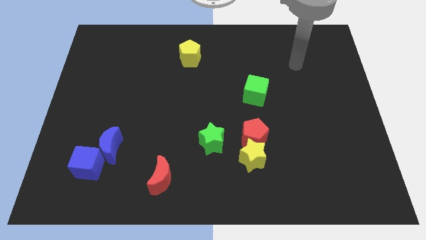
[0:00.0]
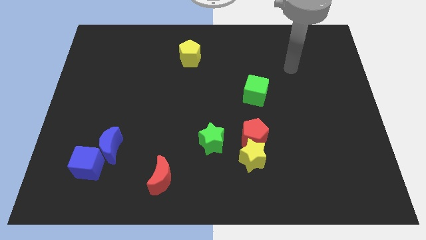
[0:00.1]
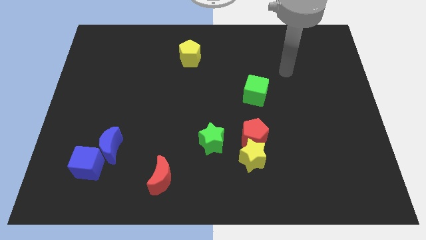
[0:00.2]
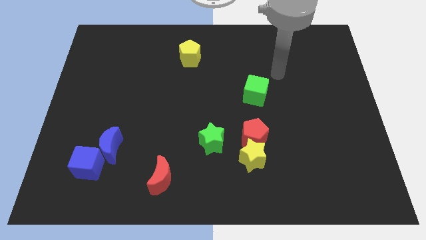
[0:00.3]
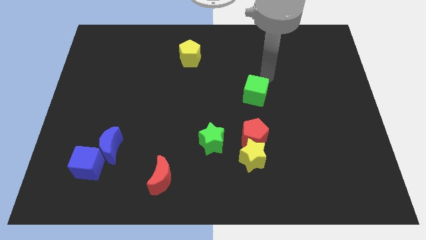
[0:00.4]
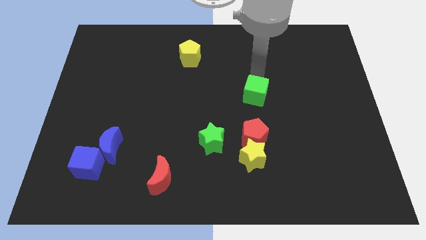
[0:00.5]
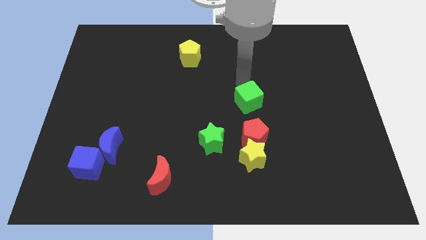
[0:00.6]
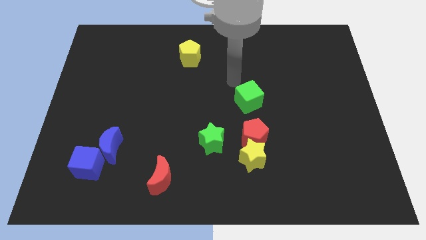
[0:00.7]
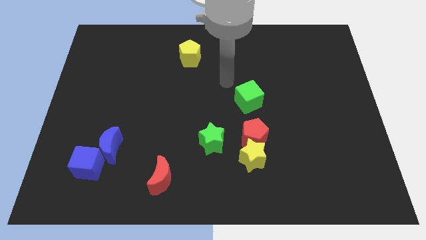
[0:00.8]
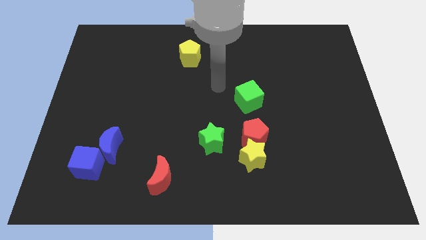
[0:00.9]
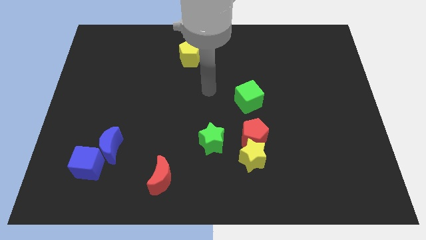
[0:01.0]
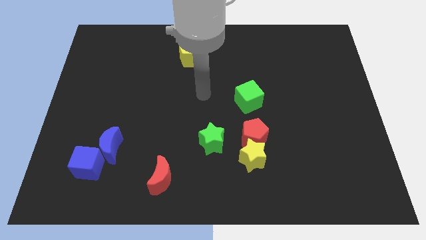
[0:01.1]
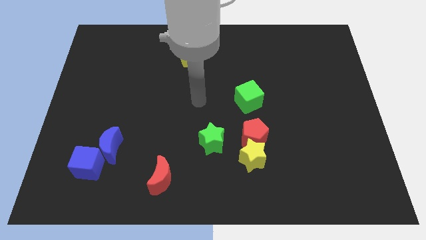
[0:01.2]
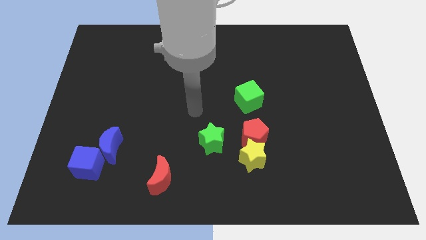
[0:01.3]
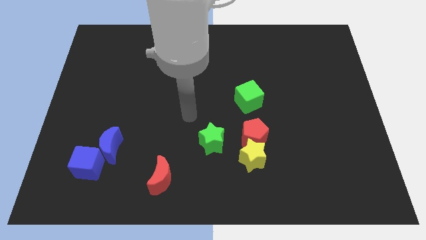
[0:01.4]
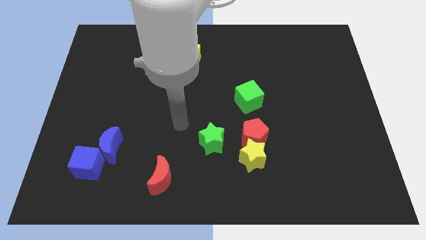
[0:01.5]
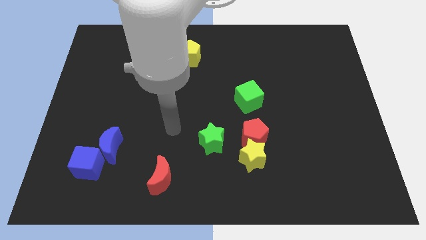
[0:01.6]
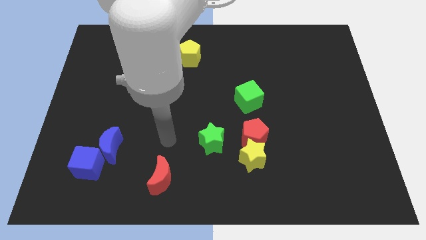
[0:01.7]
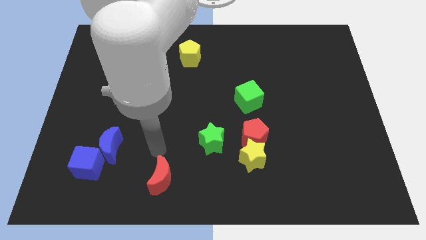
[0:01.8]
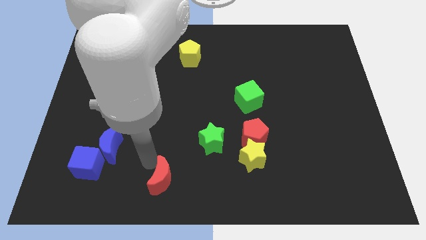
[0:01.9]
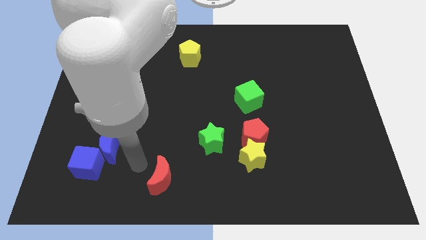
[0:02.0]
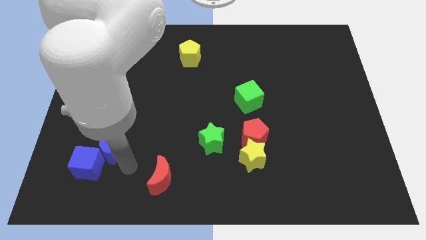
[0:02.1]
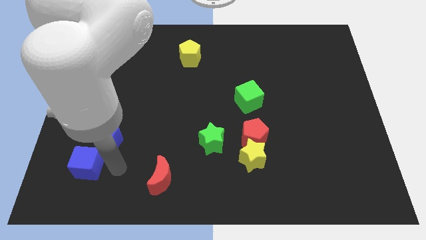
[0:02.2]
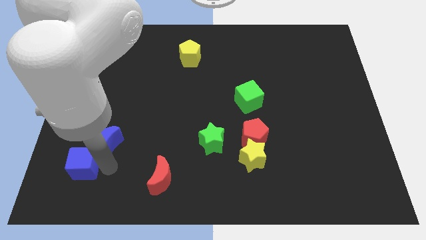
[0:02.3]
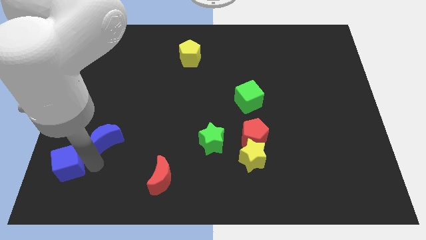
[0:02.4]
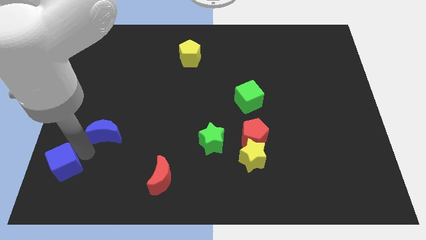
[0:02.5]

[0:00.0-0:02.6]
pull the blue moon apart from the blue cube

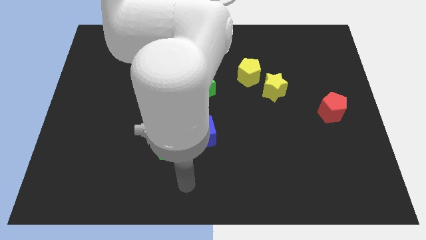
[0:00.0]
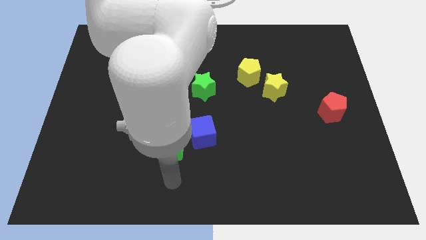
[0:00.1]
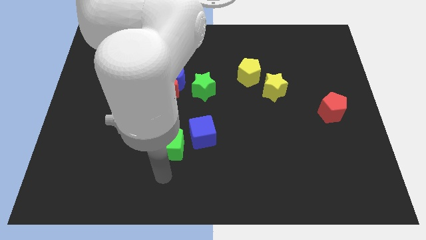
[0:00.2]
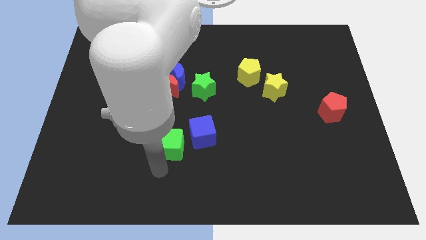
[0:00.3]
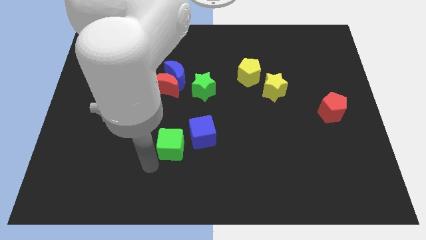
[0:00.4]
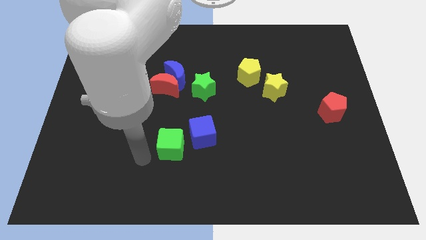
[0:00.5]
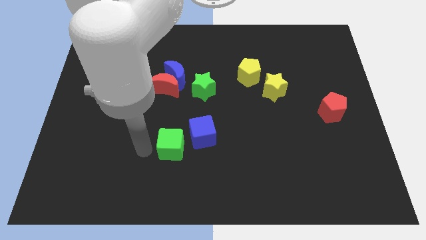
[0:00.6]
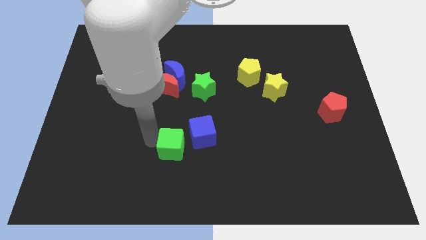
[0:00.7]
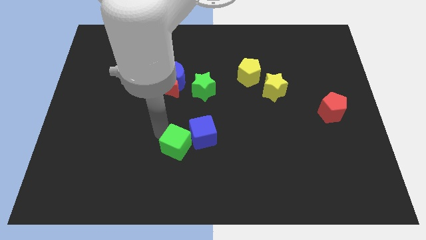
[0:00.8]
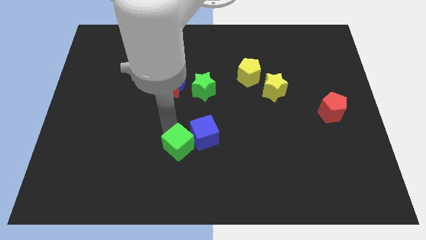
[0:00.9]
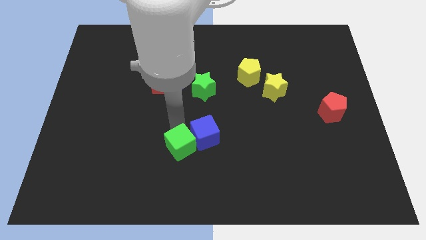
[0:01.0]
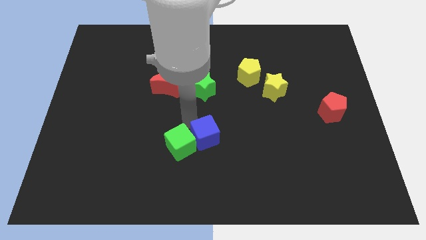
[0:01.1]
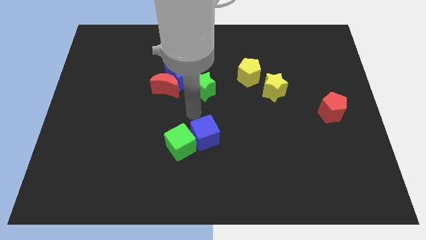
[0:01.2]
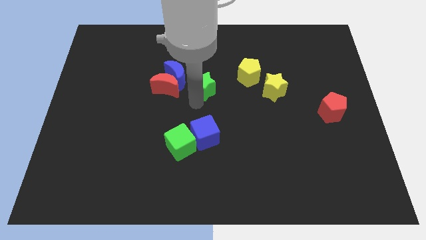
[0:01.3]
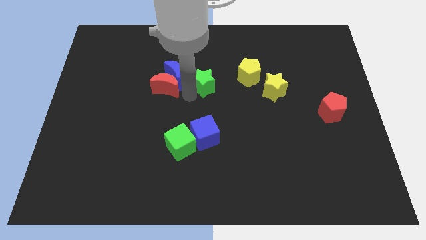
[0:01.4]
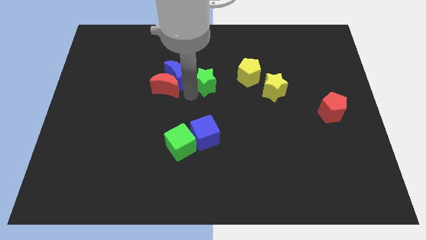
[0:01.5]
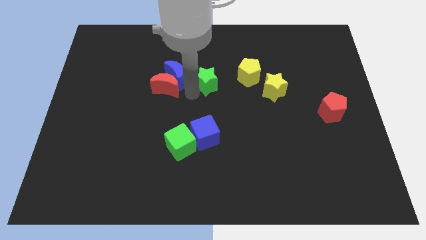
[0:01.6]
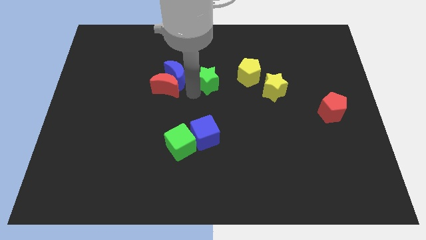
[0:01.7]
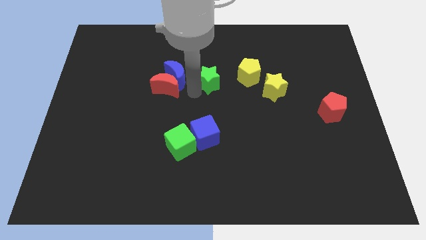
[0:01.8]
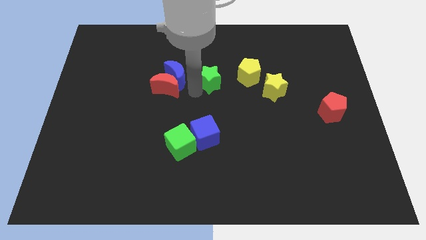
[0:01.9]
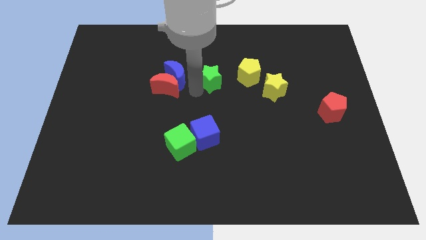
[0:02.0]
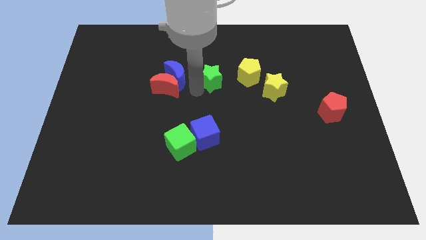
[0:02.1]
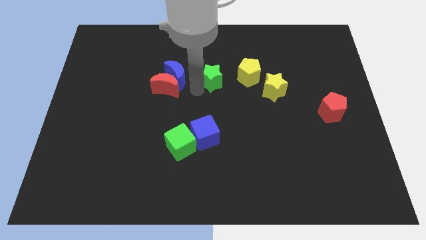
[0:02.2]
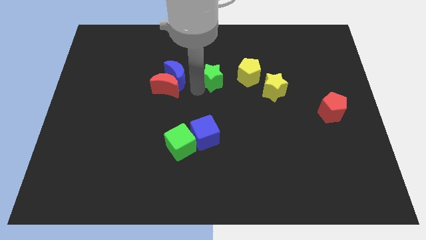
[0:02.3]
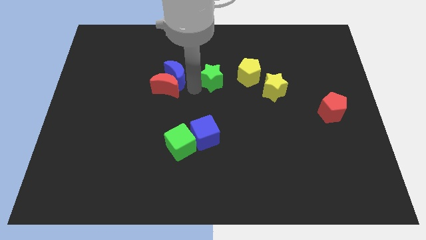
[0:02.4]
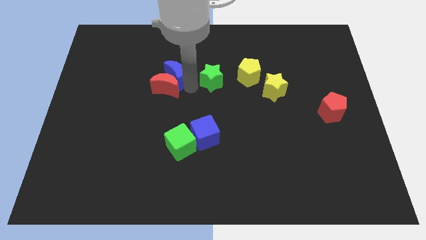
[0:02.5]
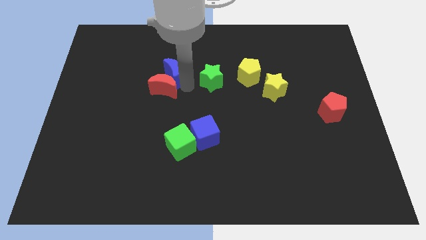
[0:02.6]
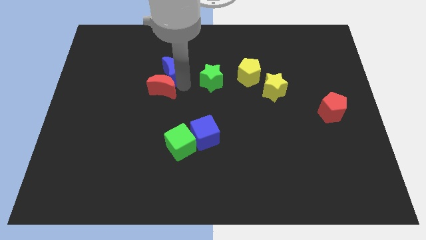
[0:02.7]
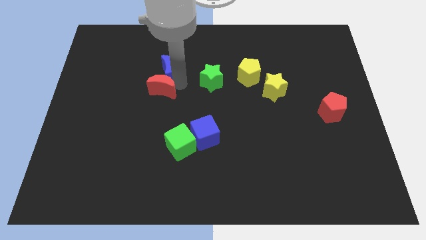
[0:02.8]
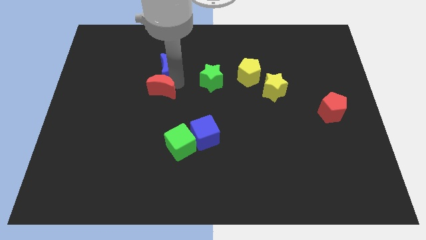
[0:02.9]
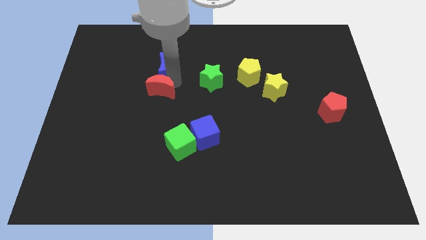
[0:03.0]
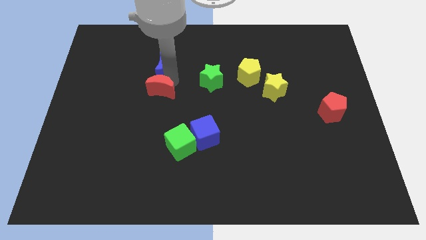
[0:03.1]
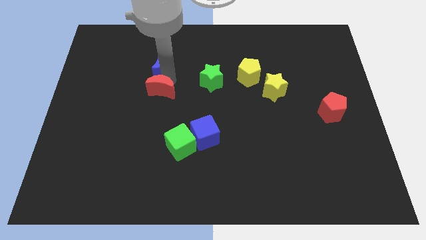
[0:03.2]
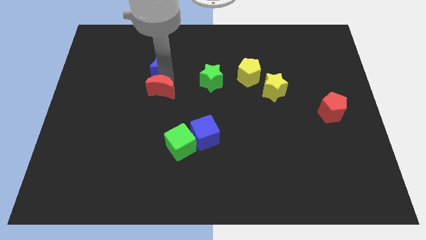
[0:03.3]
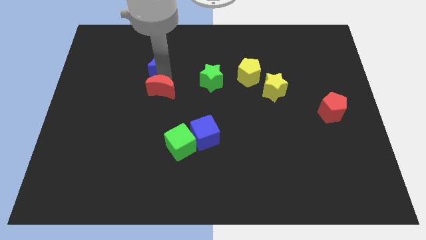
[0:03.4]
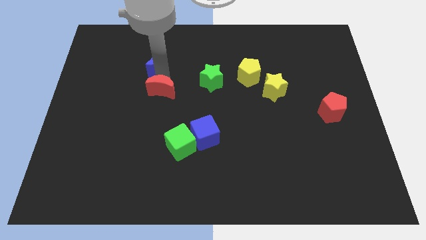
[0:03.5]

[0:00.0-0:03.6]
pull the blue moon apart from the red moon and green star

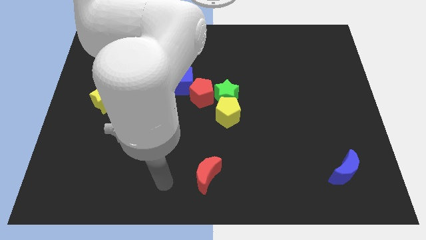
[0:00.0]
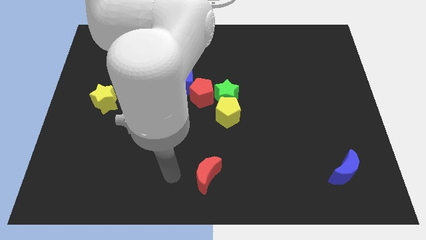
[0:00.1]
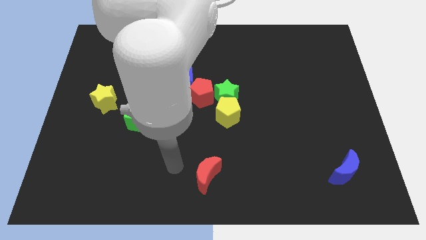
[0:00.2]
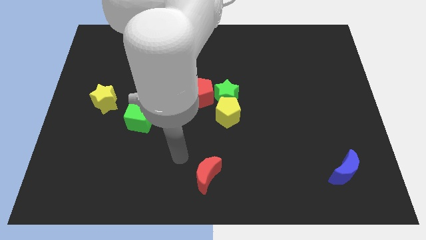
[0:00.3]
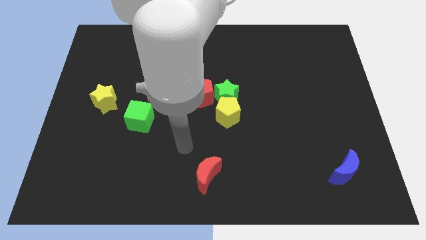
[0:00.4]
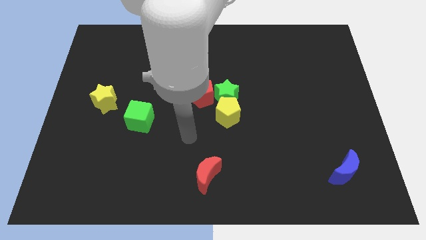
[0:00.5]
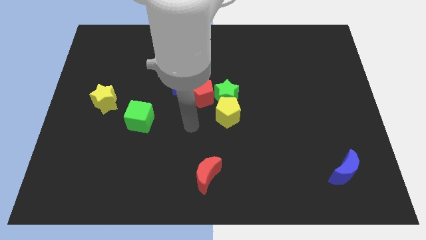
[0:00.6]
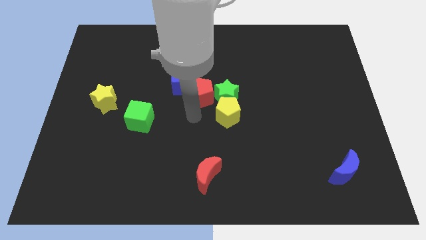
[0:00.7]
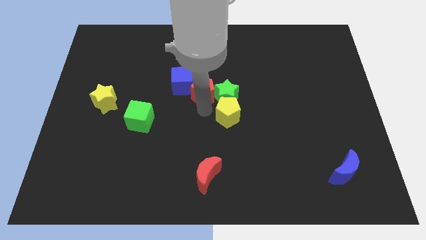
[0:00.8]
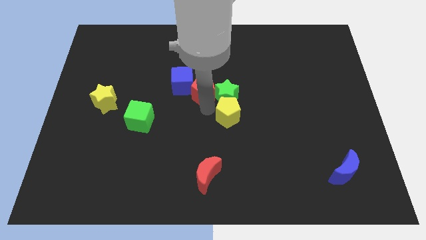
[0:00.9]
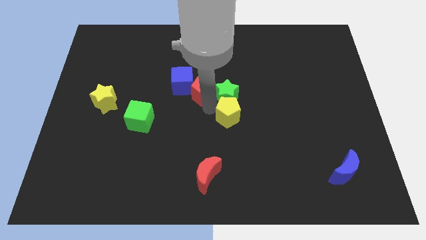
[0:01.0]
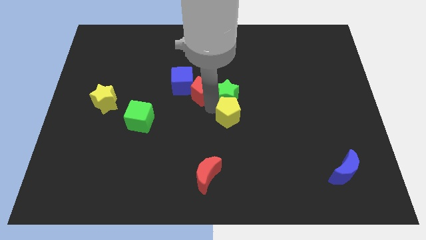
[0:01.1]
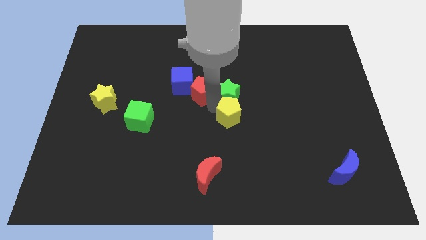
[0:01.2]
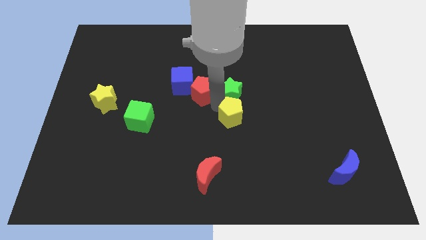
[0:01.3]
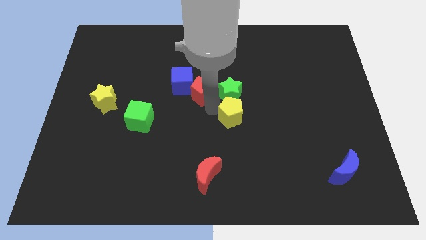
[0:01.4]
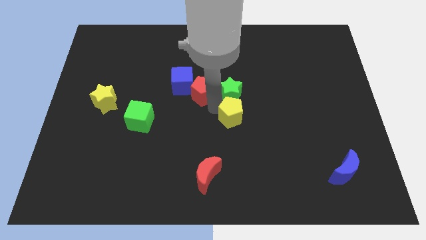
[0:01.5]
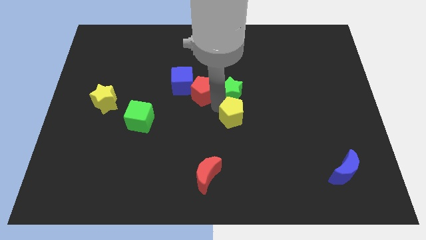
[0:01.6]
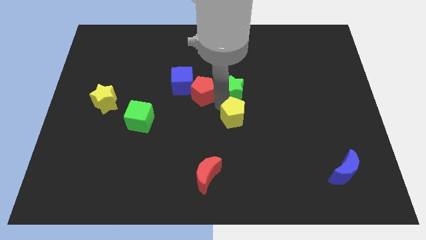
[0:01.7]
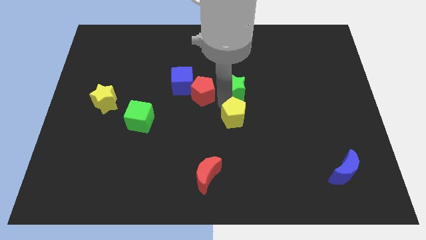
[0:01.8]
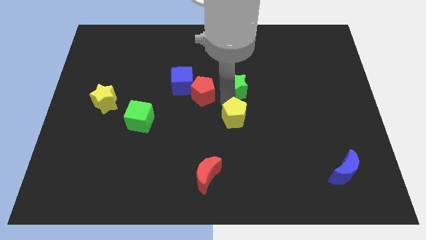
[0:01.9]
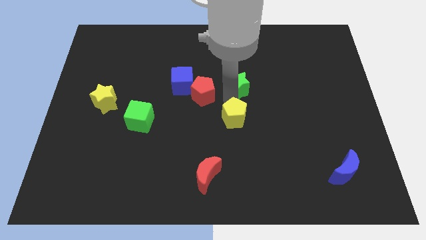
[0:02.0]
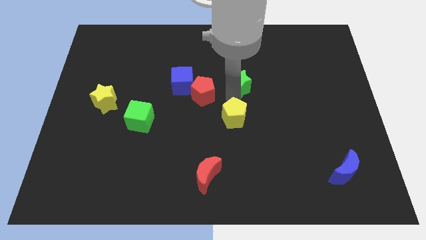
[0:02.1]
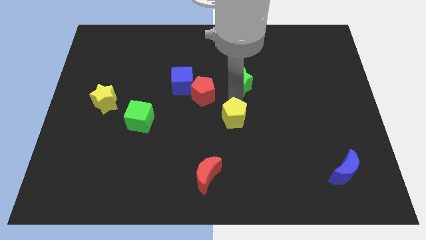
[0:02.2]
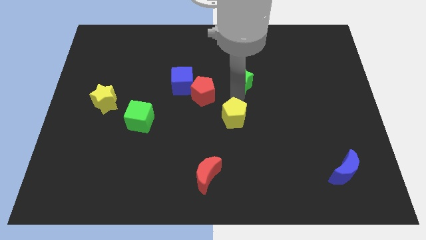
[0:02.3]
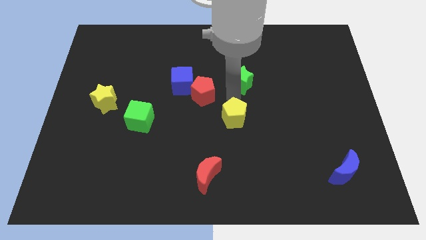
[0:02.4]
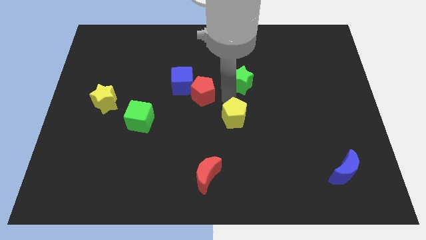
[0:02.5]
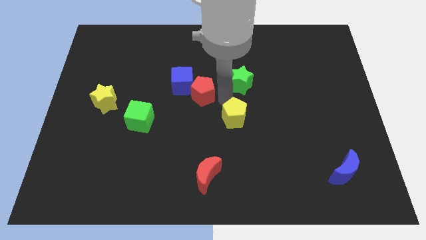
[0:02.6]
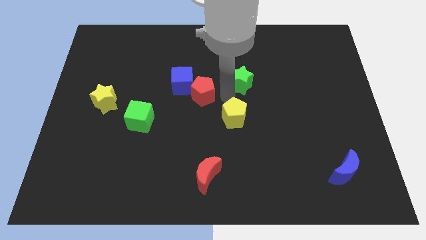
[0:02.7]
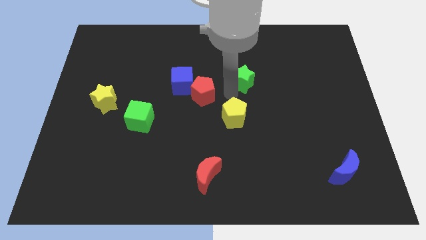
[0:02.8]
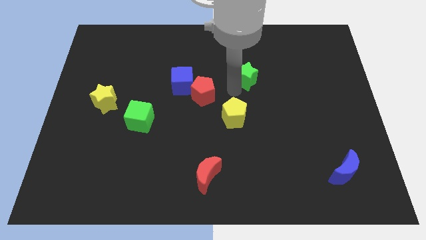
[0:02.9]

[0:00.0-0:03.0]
pull the green star apart from the yellow pentagon and red pentagon

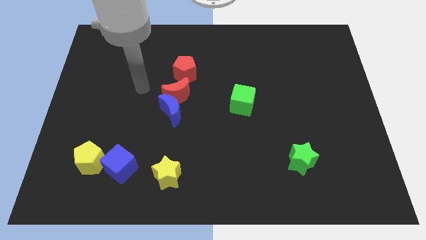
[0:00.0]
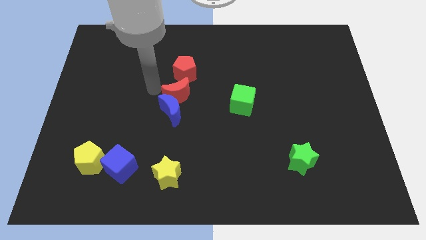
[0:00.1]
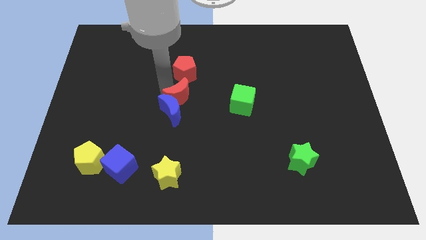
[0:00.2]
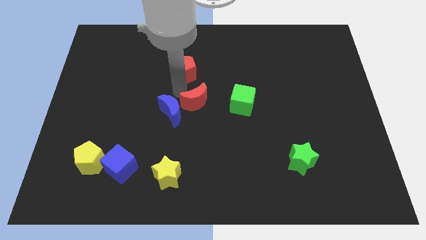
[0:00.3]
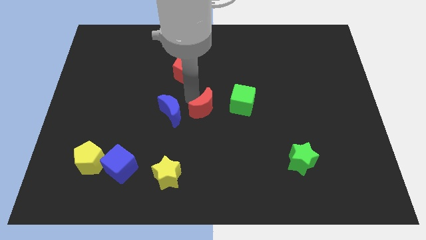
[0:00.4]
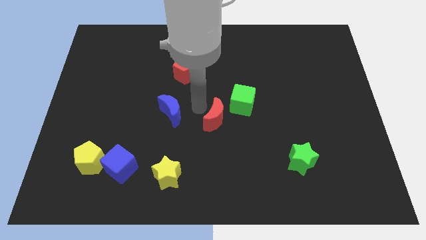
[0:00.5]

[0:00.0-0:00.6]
move the blue moon away from the red moon
